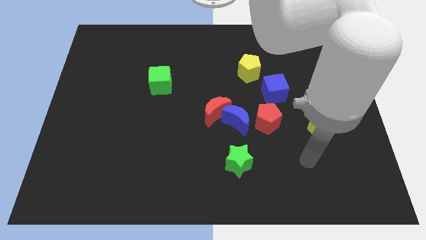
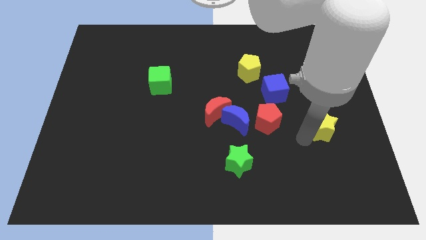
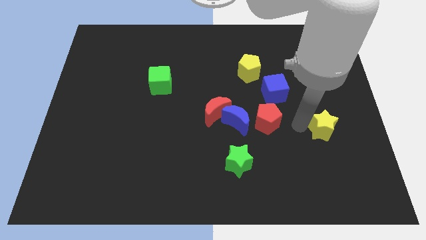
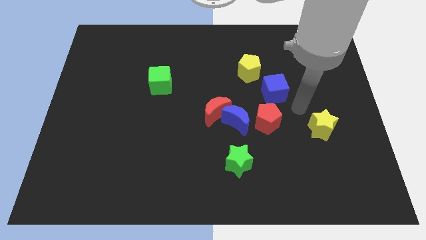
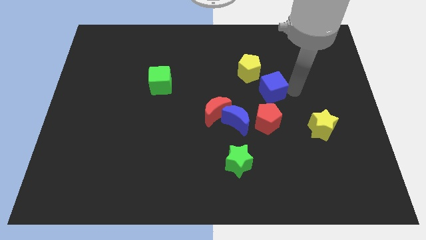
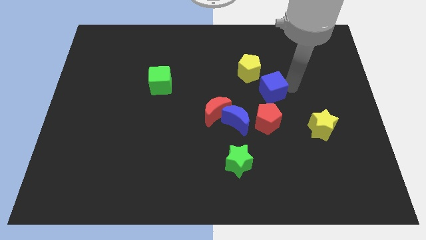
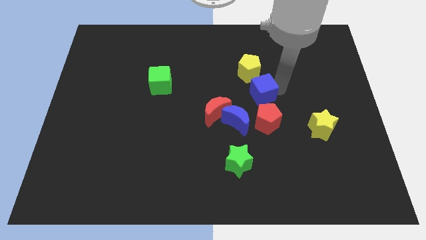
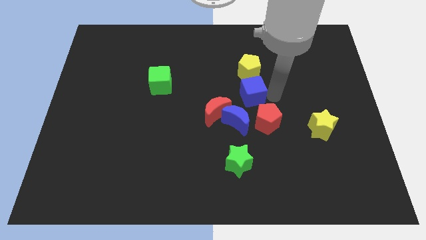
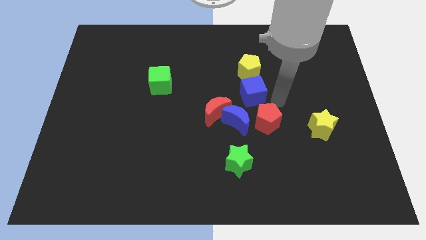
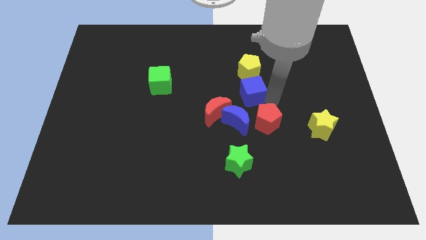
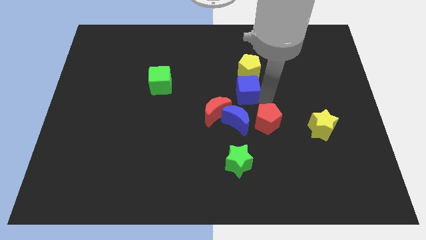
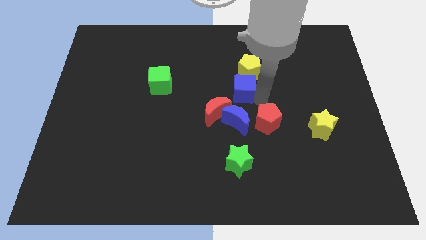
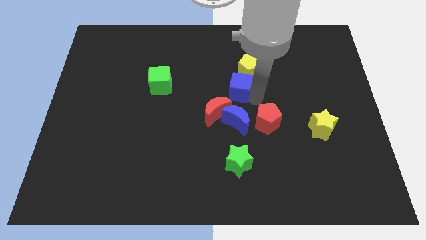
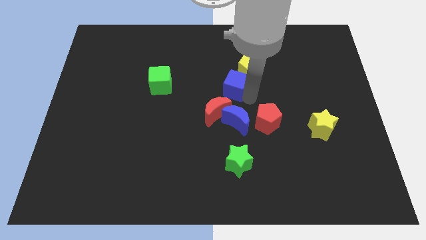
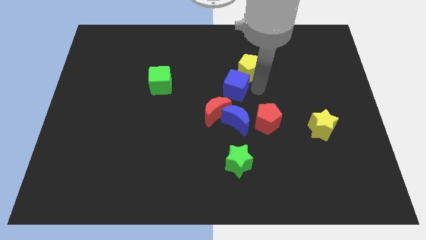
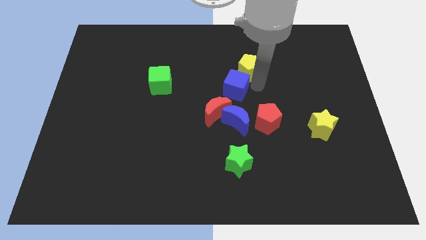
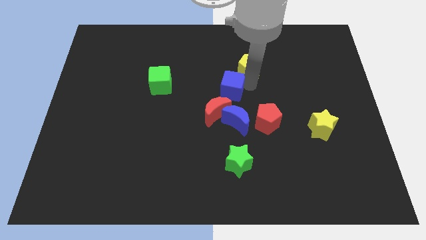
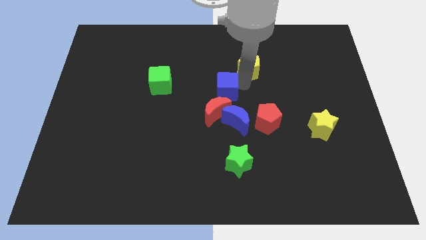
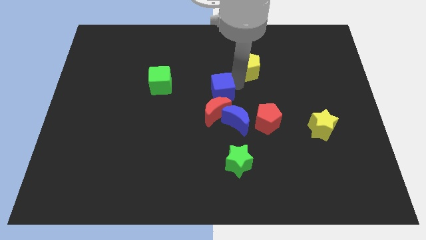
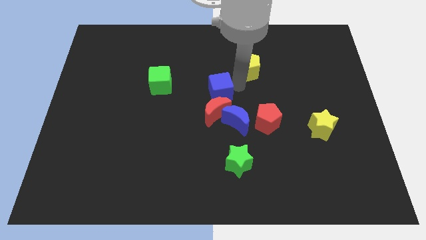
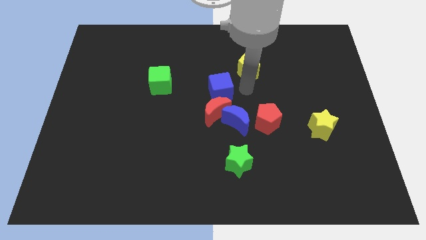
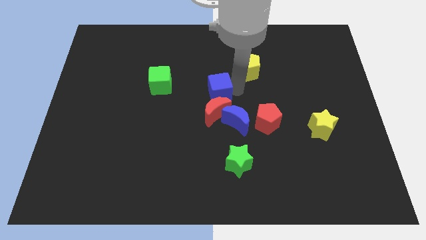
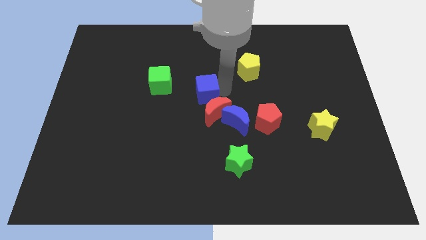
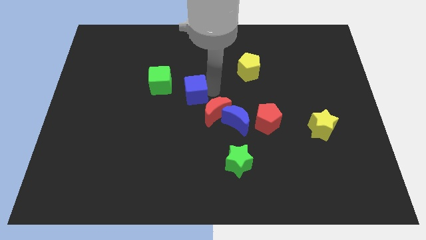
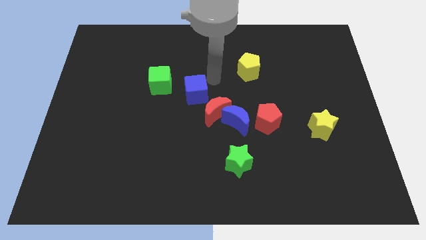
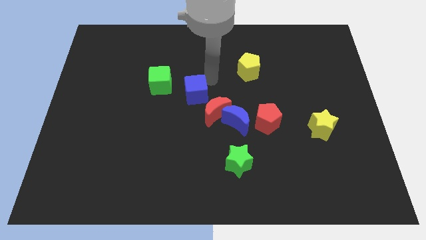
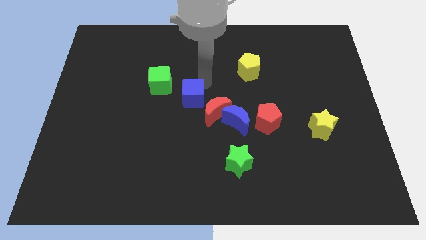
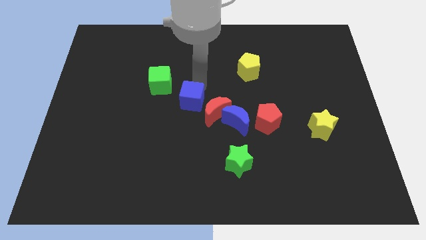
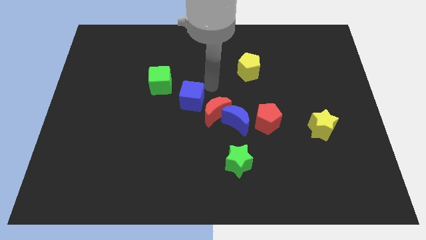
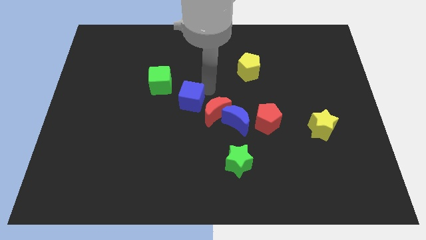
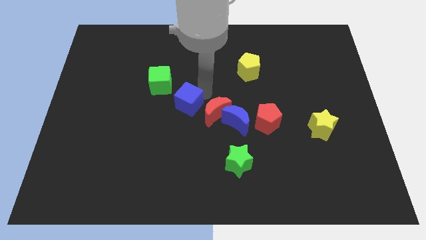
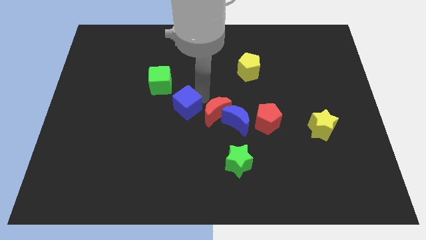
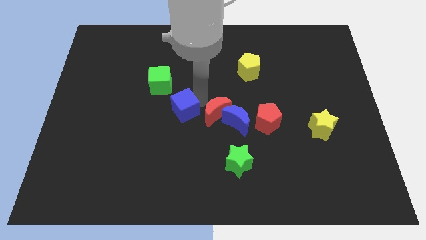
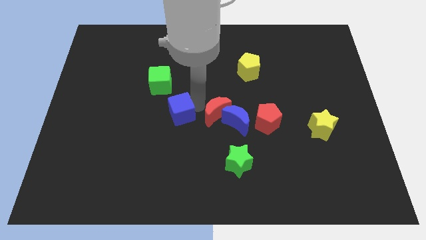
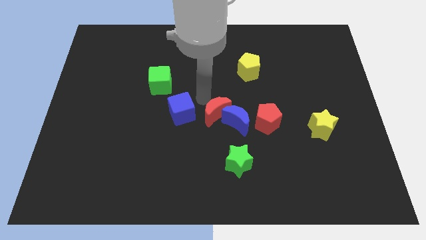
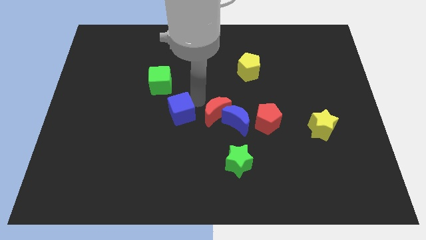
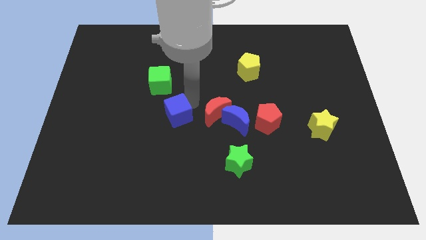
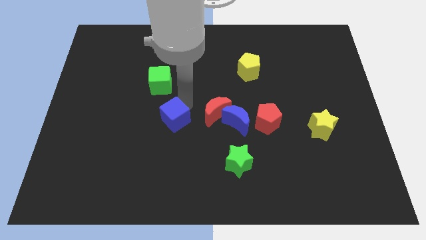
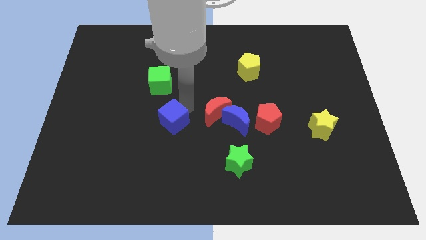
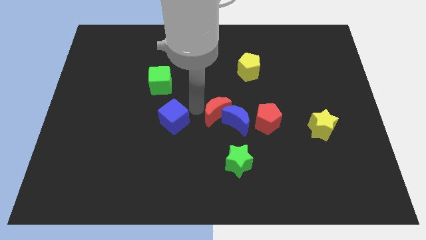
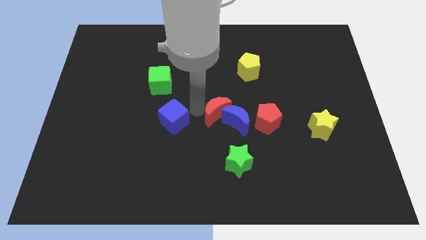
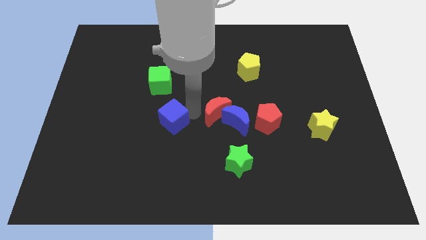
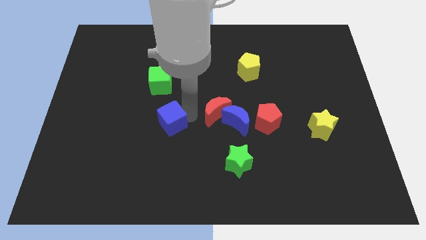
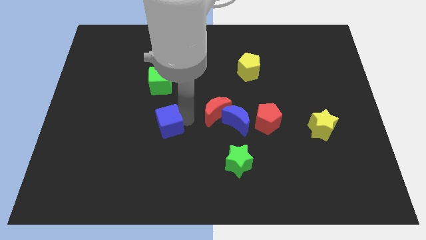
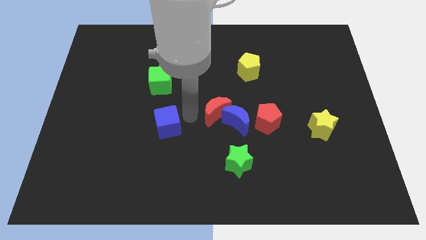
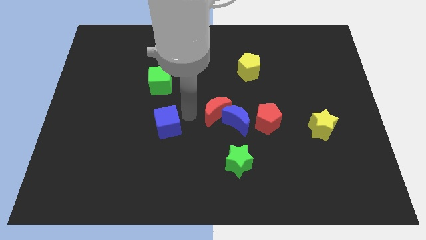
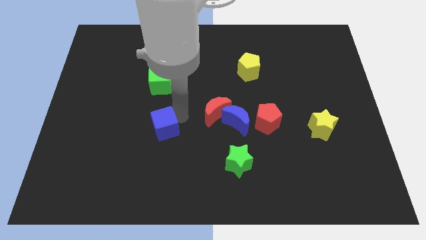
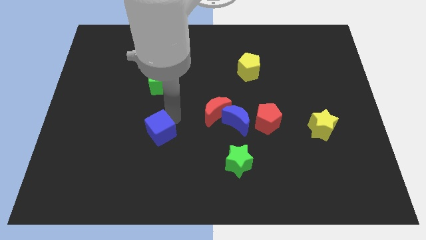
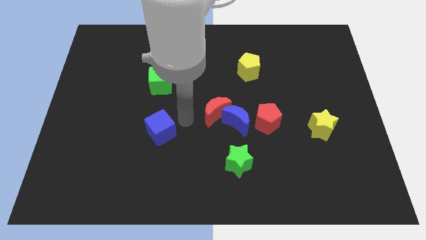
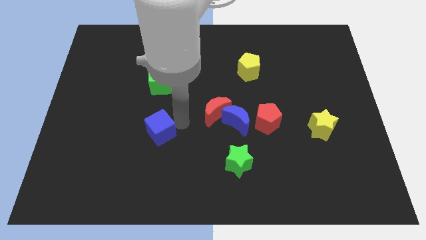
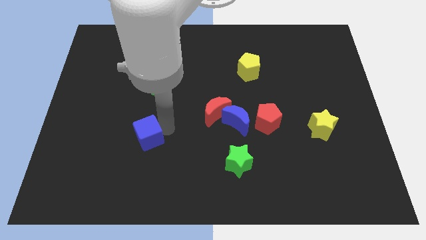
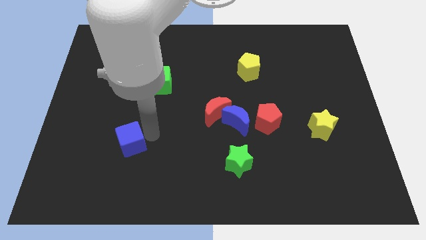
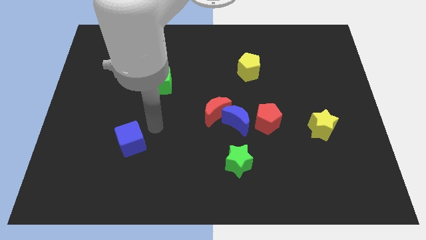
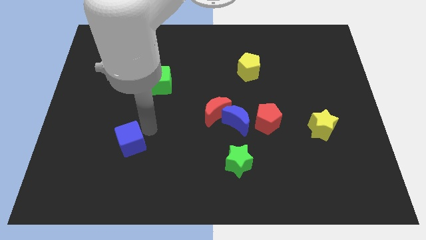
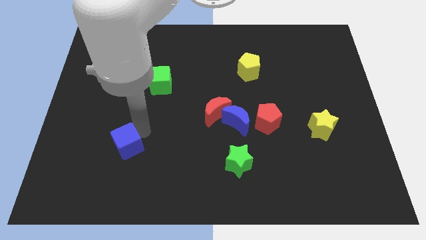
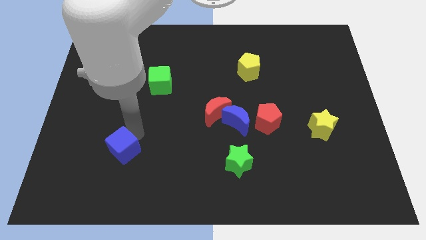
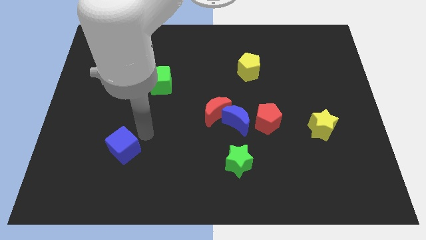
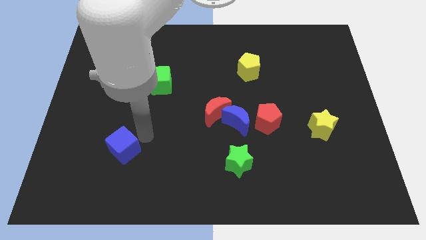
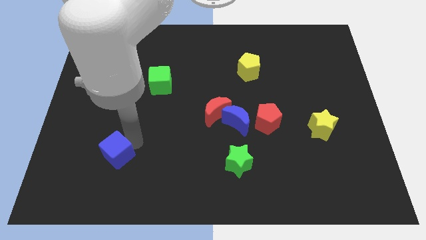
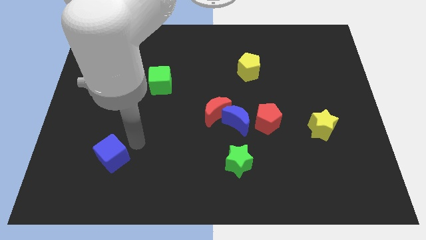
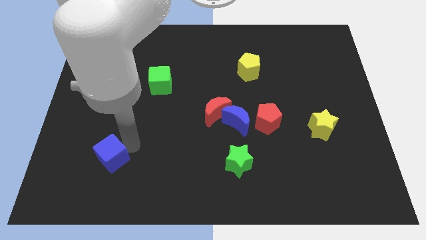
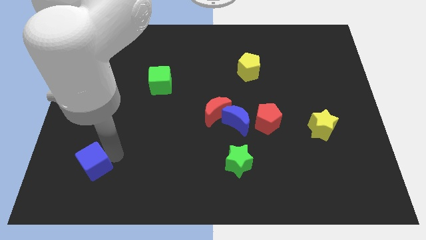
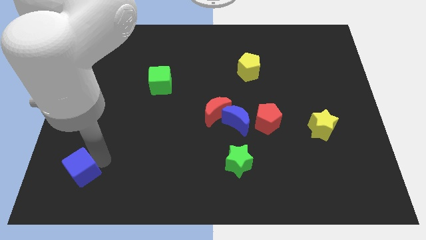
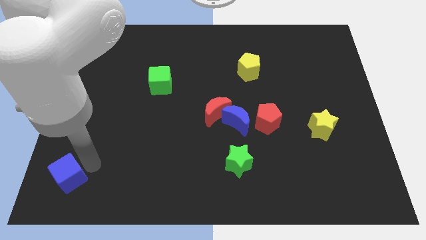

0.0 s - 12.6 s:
put the blue cube to the bottom left corner
